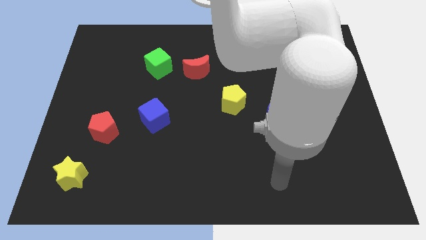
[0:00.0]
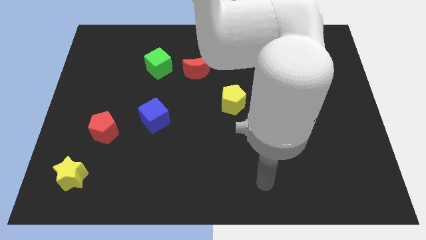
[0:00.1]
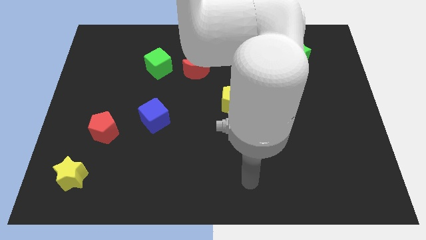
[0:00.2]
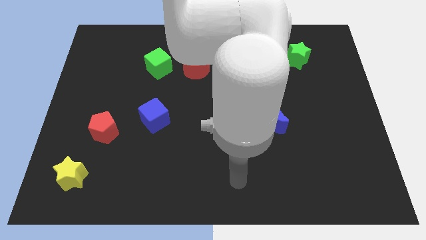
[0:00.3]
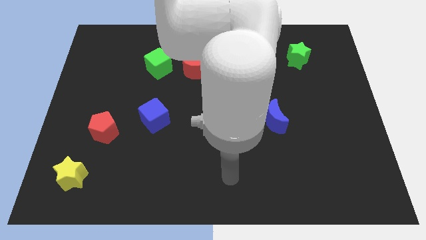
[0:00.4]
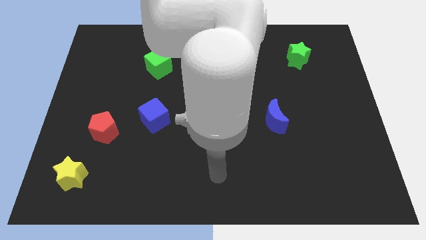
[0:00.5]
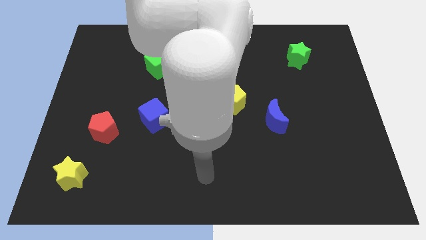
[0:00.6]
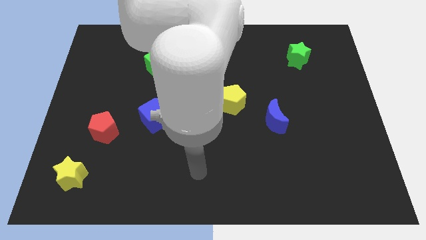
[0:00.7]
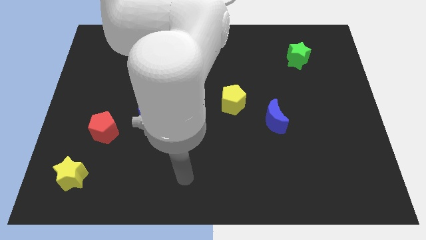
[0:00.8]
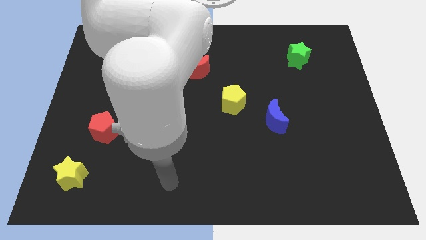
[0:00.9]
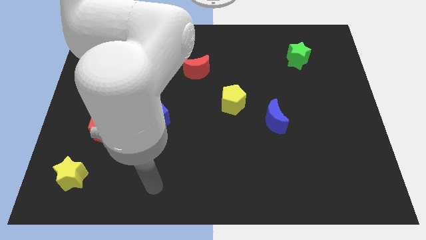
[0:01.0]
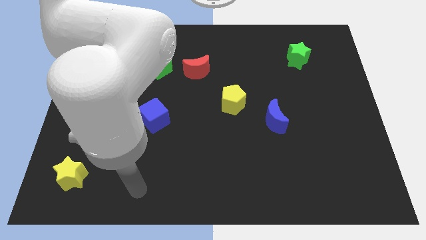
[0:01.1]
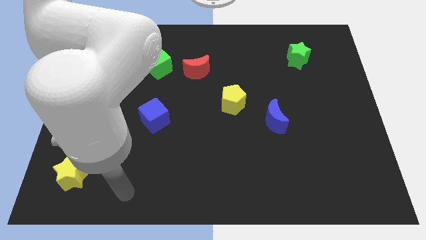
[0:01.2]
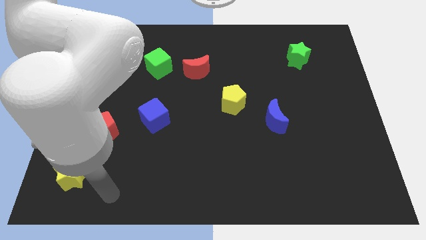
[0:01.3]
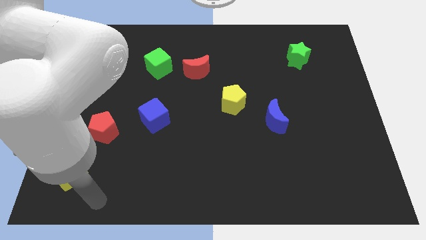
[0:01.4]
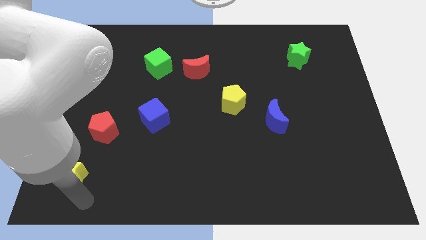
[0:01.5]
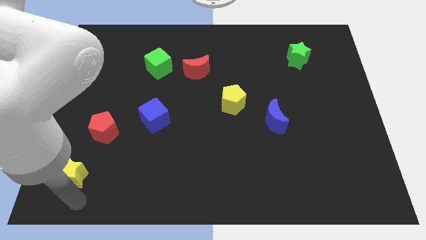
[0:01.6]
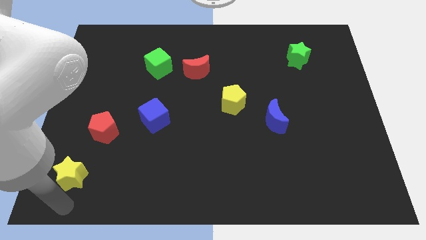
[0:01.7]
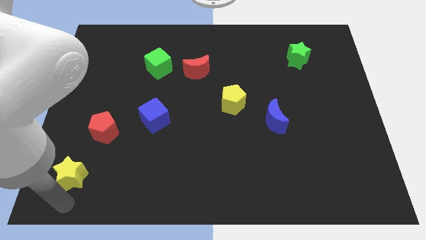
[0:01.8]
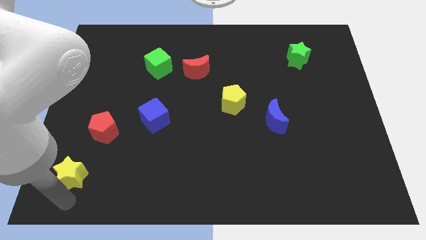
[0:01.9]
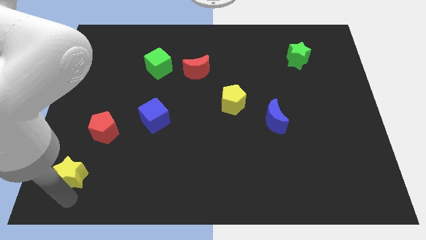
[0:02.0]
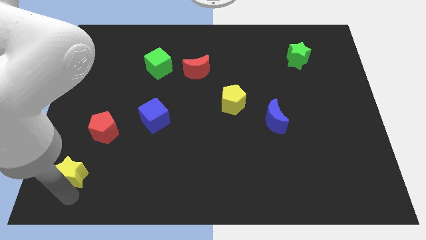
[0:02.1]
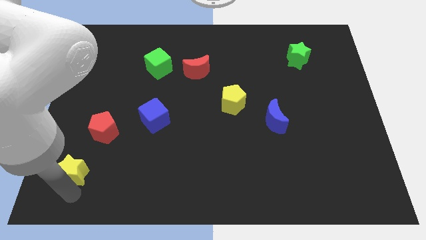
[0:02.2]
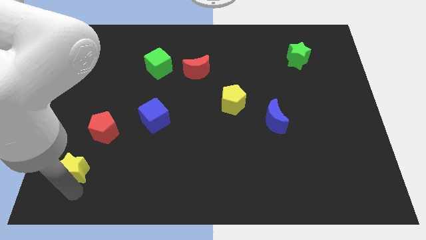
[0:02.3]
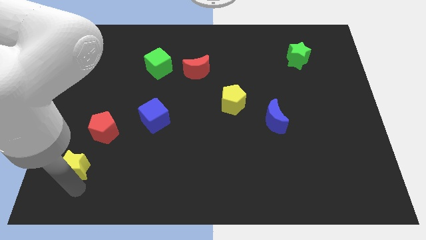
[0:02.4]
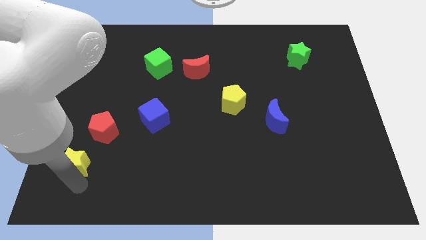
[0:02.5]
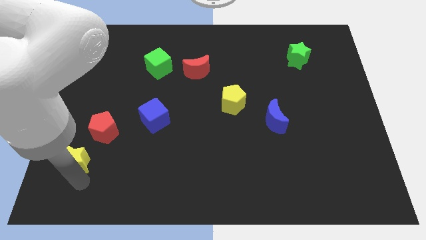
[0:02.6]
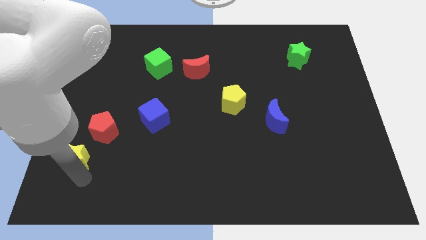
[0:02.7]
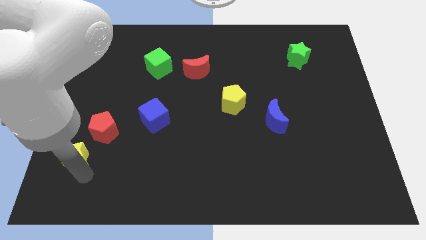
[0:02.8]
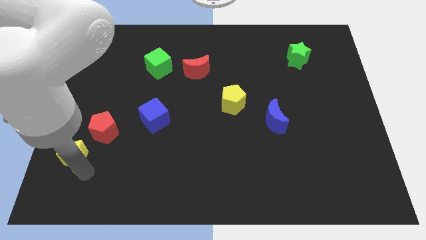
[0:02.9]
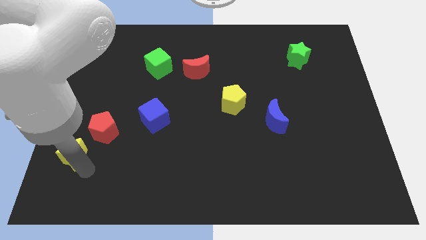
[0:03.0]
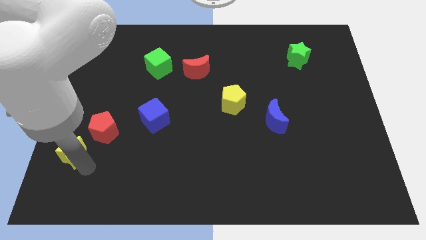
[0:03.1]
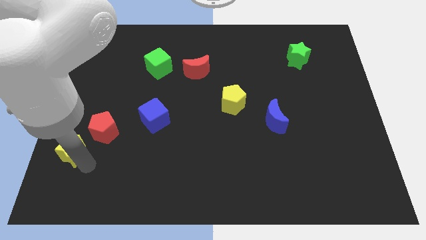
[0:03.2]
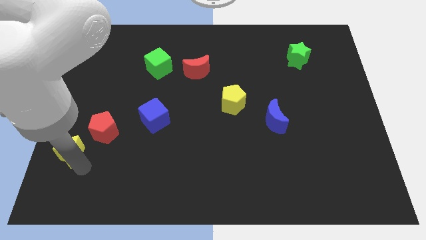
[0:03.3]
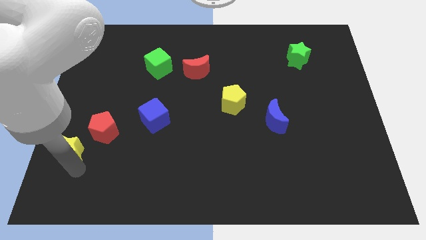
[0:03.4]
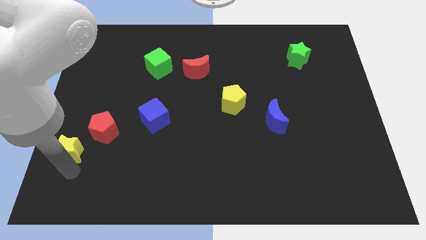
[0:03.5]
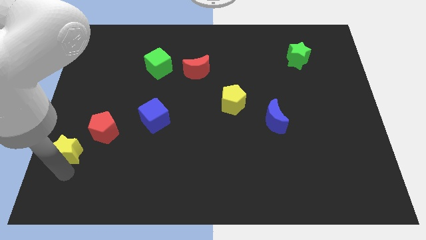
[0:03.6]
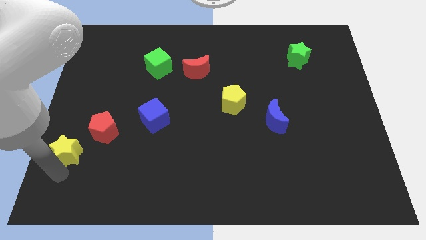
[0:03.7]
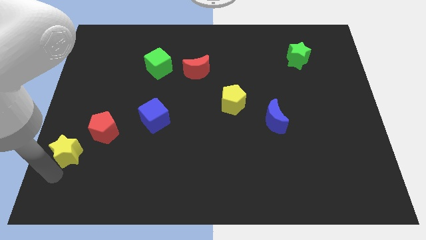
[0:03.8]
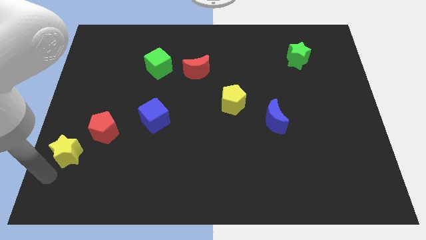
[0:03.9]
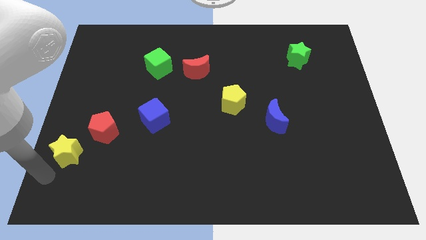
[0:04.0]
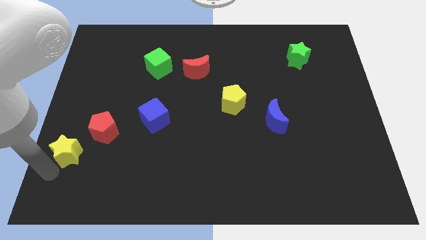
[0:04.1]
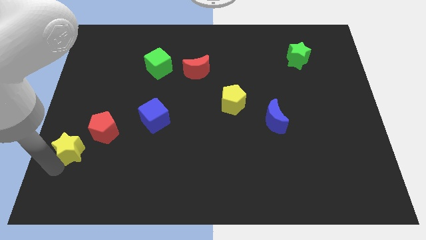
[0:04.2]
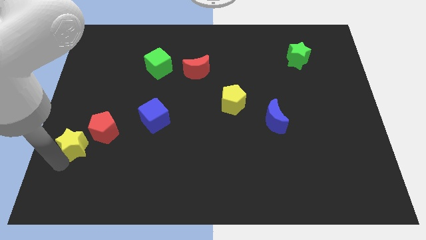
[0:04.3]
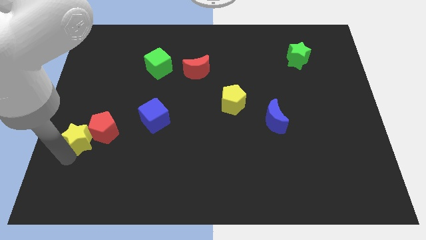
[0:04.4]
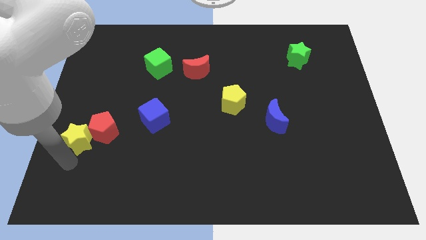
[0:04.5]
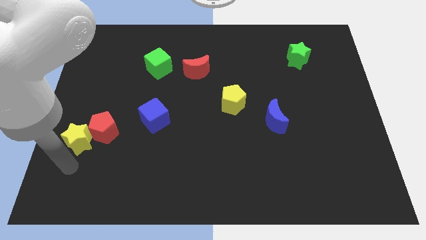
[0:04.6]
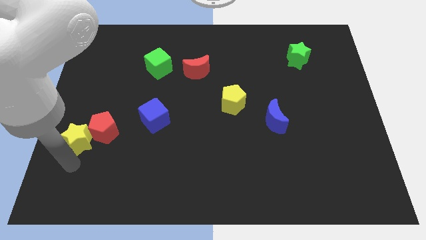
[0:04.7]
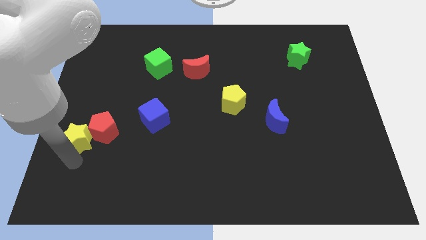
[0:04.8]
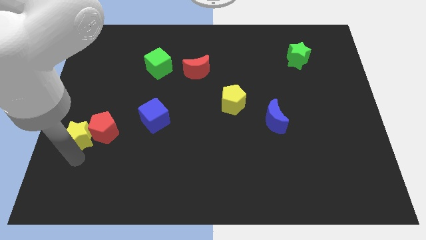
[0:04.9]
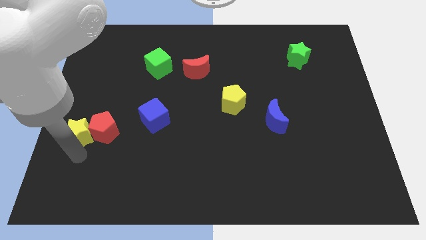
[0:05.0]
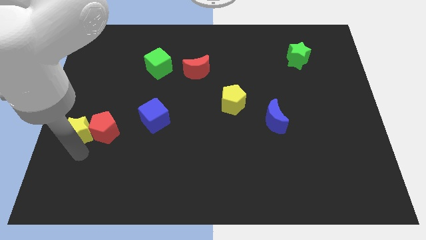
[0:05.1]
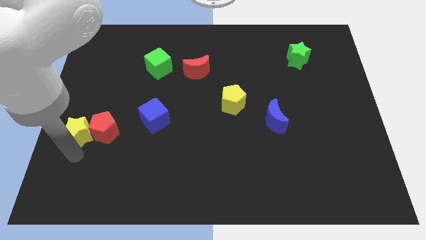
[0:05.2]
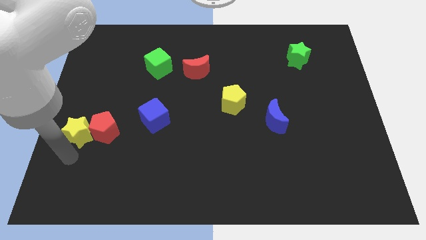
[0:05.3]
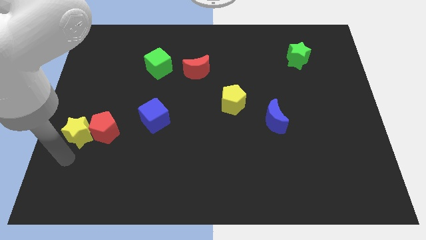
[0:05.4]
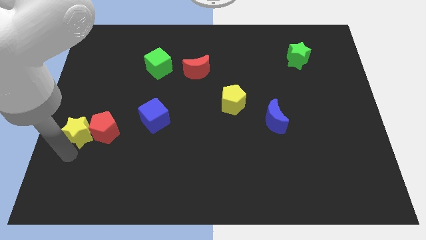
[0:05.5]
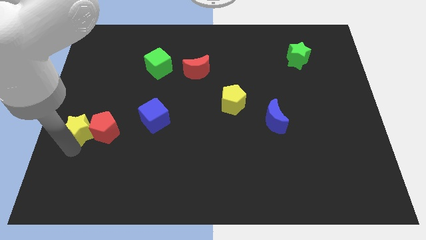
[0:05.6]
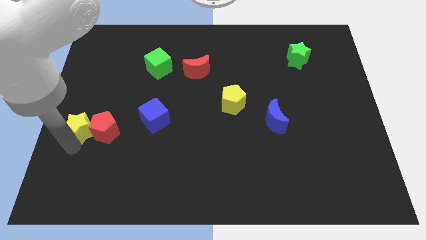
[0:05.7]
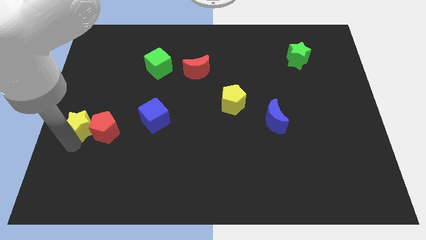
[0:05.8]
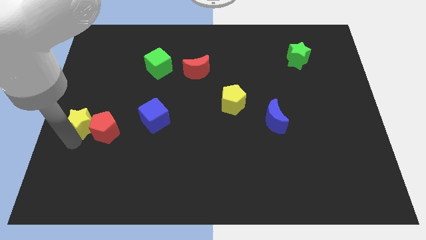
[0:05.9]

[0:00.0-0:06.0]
move the yellow star just left of the blue cube

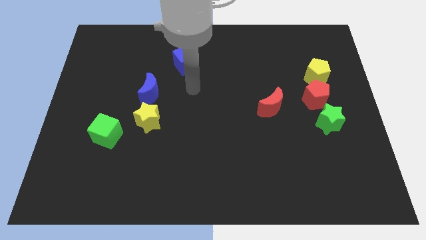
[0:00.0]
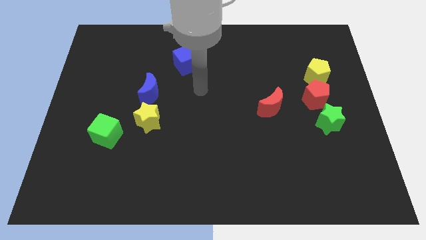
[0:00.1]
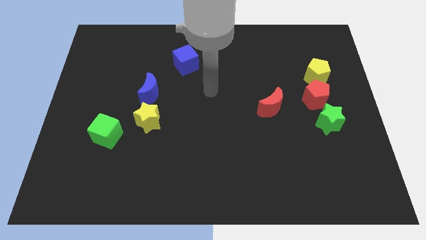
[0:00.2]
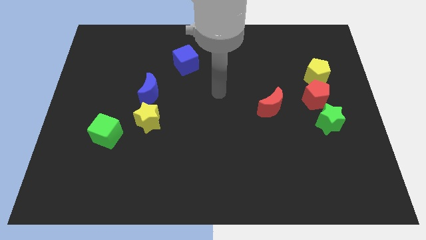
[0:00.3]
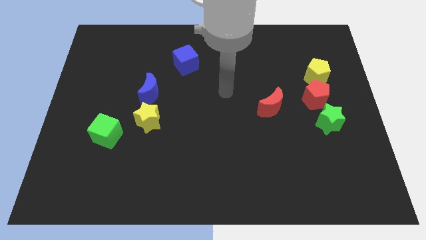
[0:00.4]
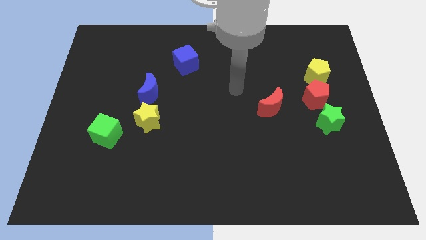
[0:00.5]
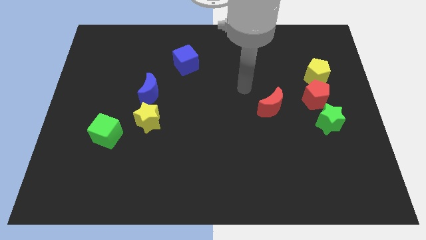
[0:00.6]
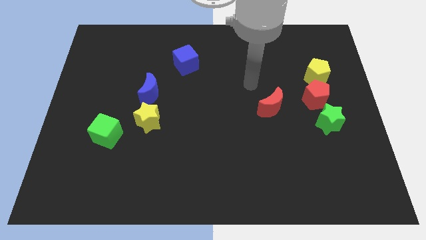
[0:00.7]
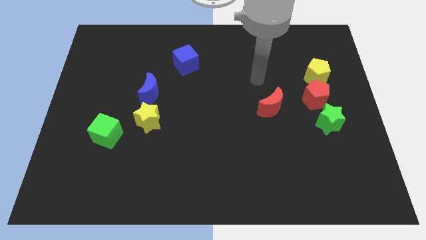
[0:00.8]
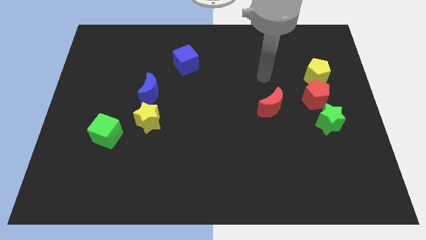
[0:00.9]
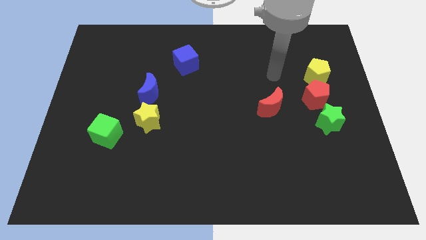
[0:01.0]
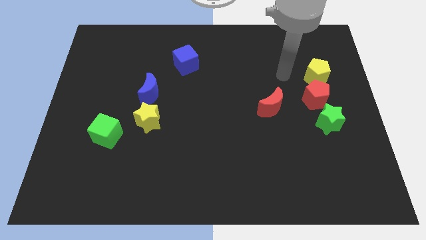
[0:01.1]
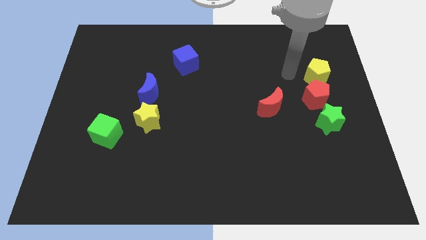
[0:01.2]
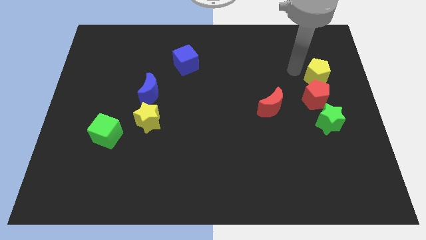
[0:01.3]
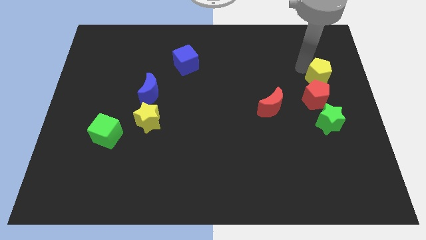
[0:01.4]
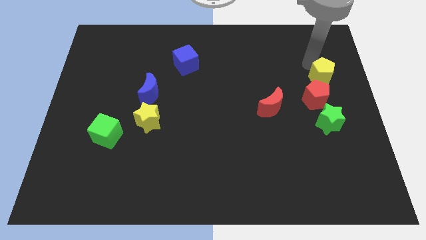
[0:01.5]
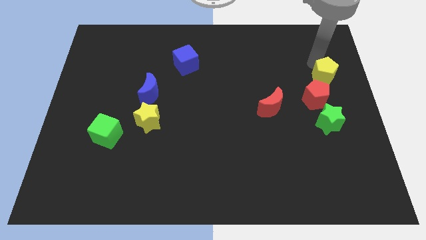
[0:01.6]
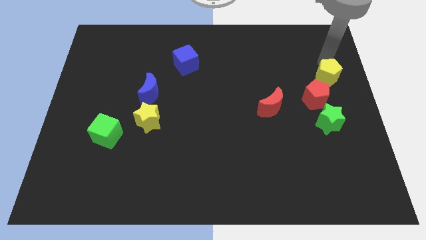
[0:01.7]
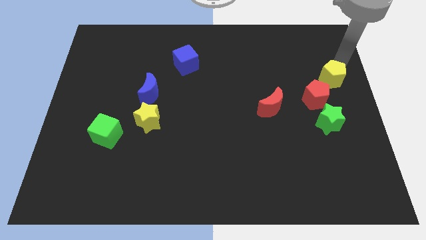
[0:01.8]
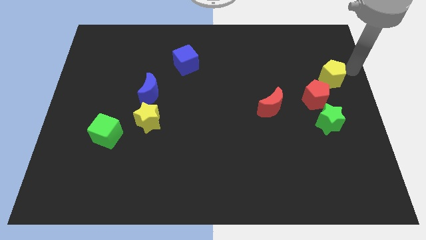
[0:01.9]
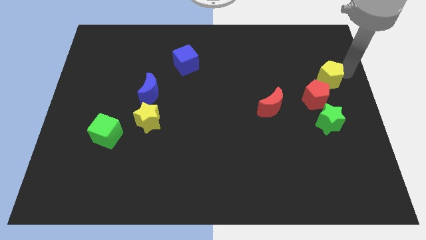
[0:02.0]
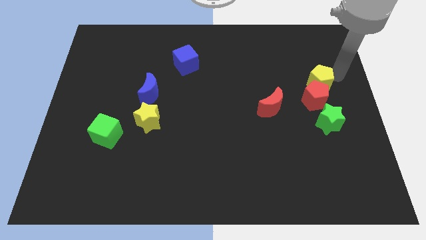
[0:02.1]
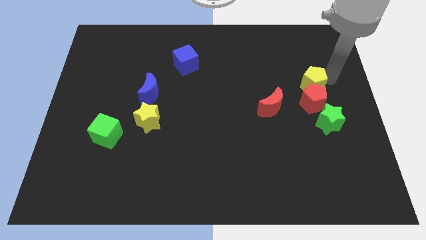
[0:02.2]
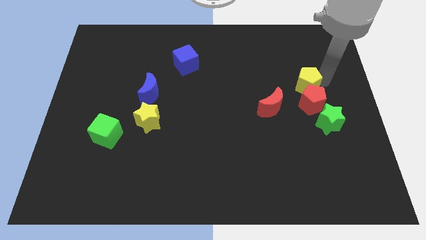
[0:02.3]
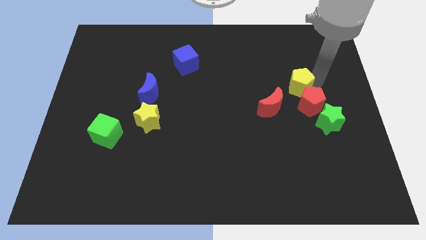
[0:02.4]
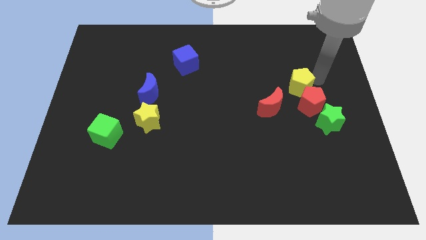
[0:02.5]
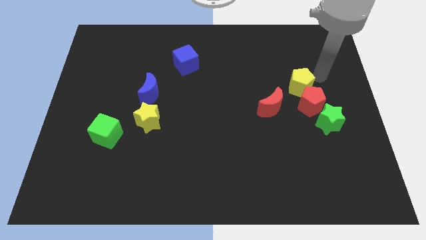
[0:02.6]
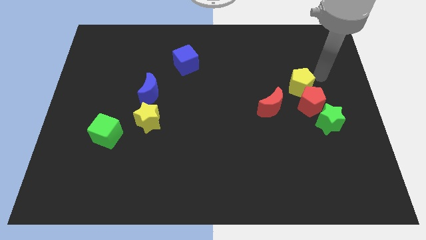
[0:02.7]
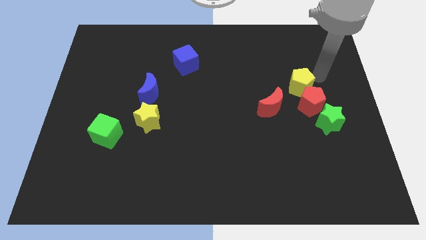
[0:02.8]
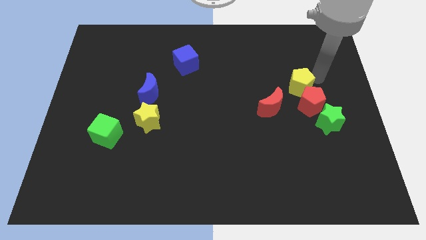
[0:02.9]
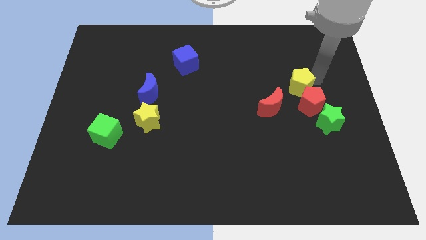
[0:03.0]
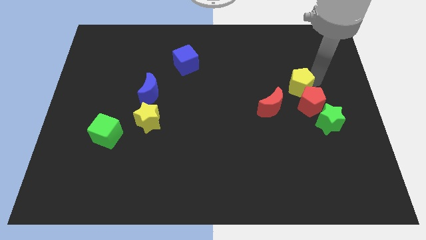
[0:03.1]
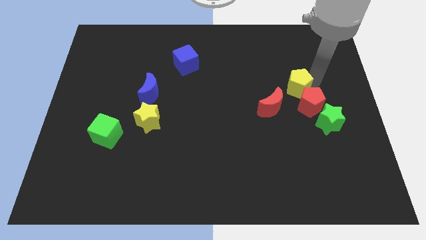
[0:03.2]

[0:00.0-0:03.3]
put the yellow pentagon to the top left of the green star
